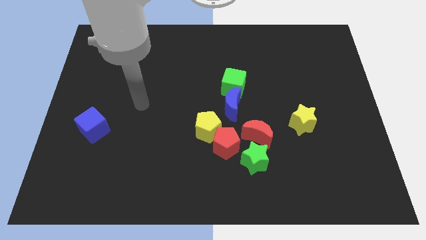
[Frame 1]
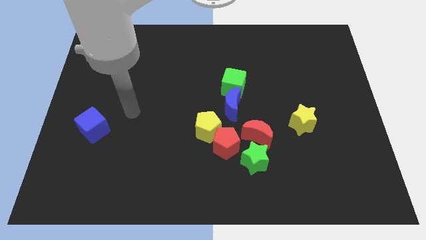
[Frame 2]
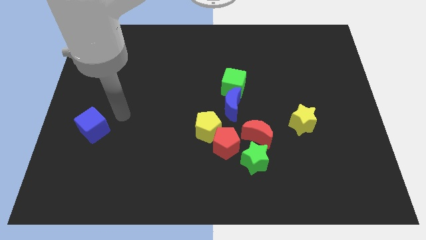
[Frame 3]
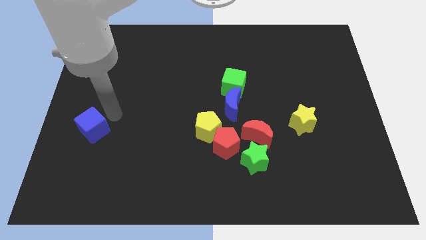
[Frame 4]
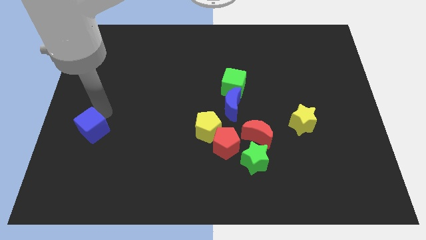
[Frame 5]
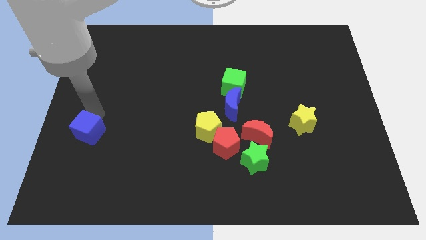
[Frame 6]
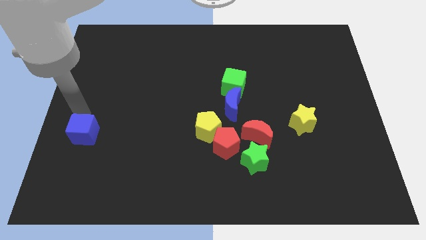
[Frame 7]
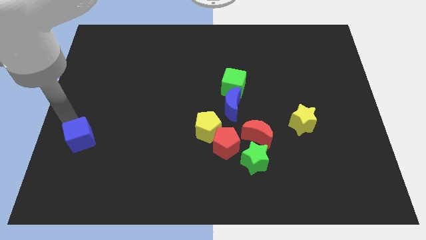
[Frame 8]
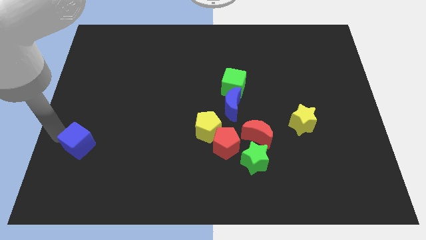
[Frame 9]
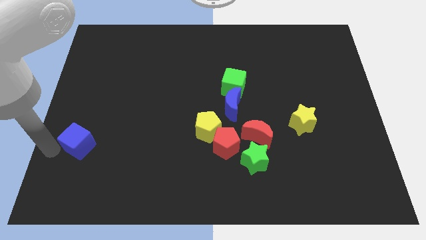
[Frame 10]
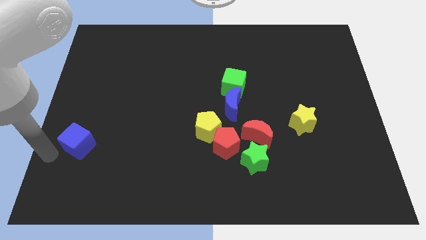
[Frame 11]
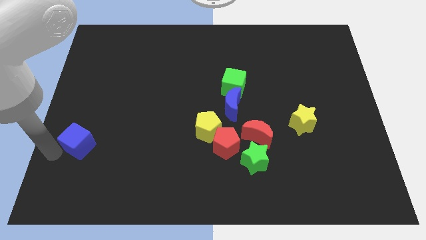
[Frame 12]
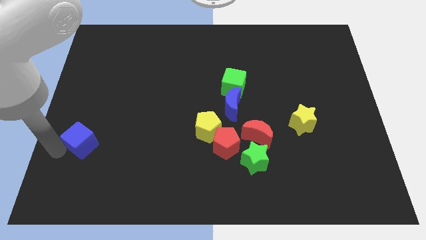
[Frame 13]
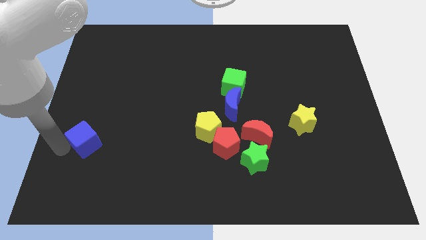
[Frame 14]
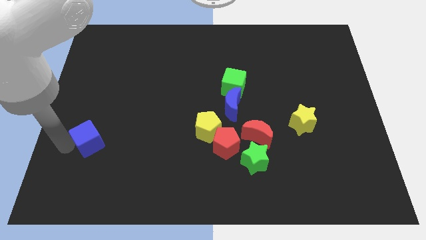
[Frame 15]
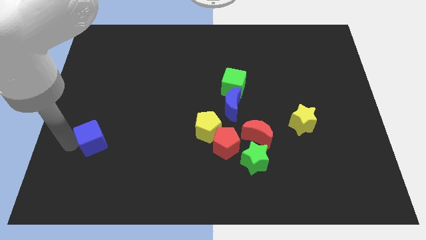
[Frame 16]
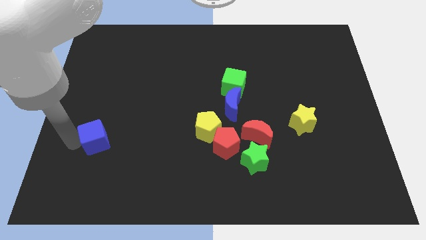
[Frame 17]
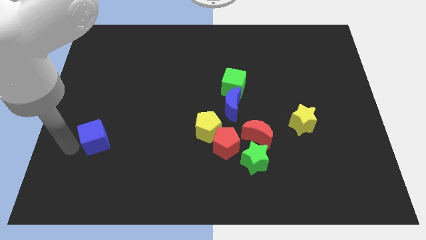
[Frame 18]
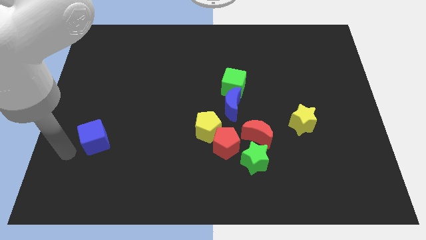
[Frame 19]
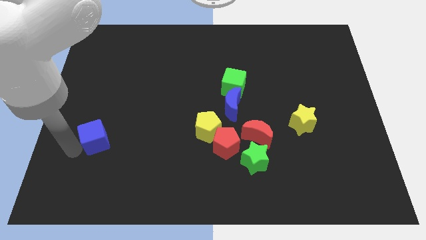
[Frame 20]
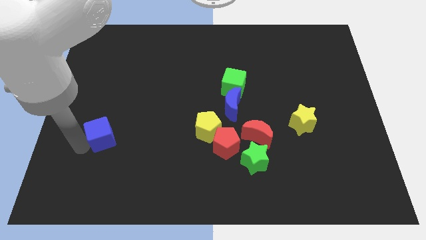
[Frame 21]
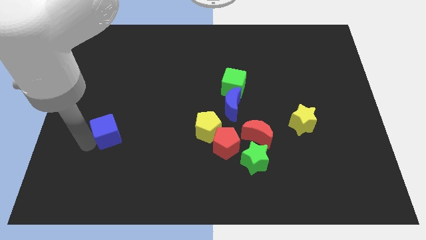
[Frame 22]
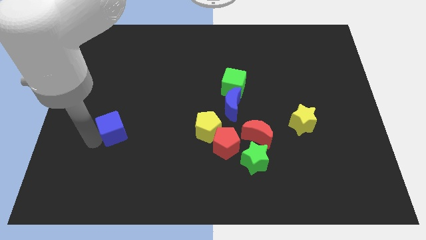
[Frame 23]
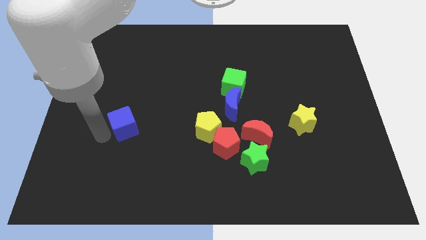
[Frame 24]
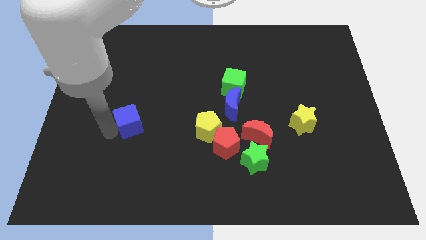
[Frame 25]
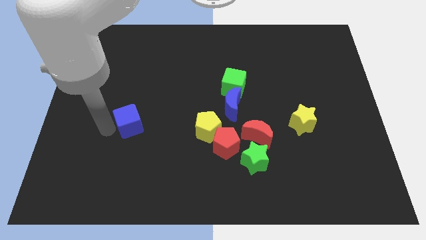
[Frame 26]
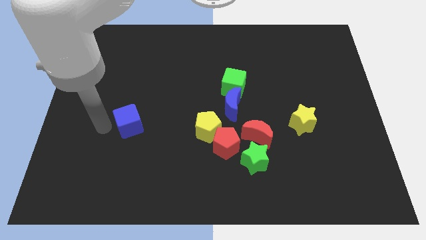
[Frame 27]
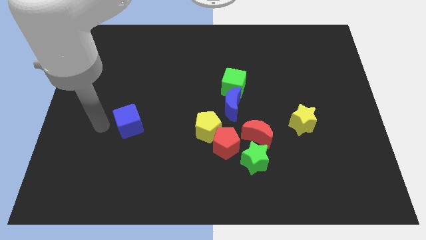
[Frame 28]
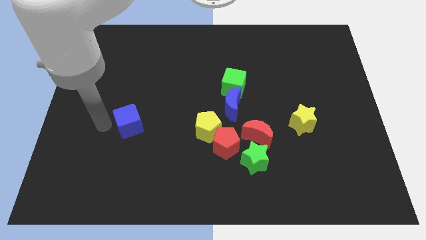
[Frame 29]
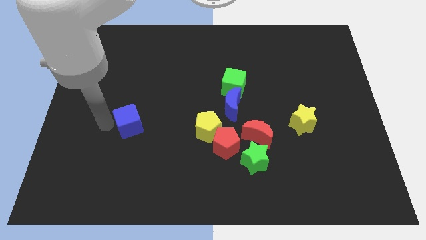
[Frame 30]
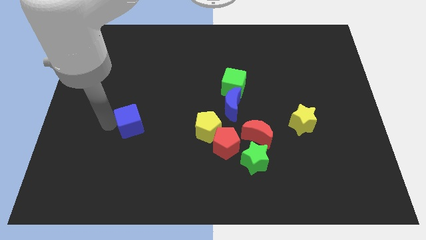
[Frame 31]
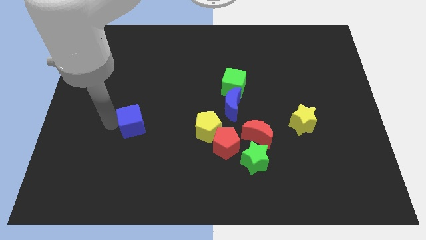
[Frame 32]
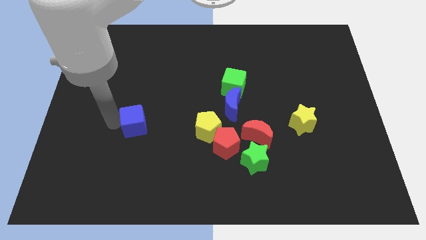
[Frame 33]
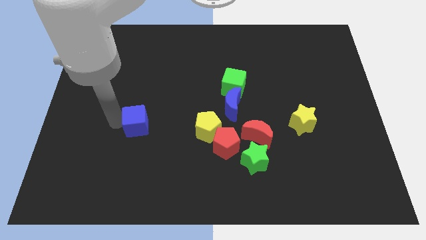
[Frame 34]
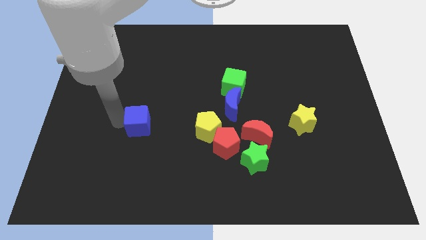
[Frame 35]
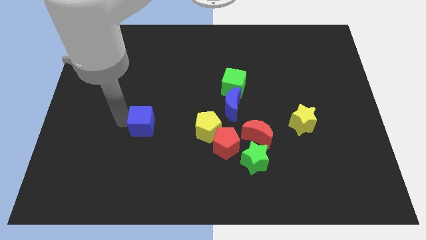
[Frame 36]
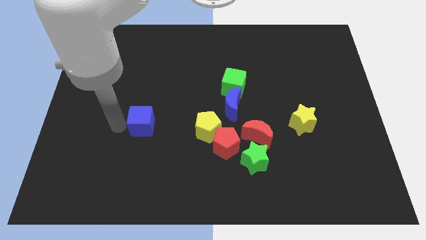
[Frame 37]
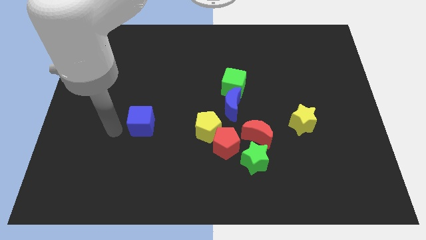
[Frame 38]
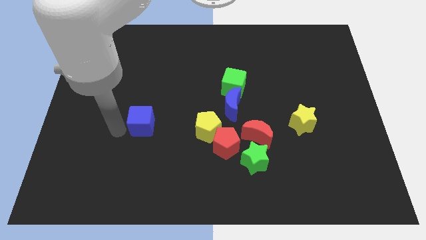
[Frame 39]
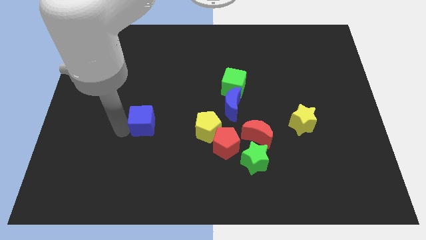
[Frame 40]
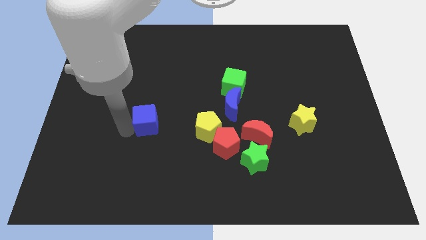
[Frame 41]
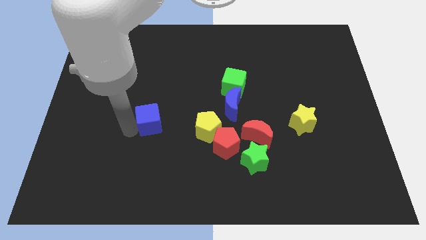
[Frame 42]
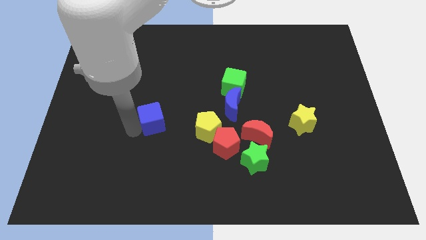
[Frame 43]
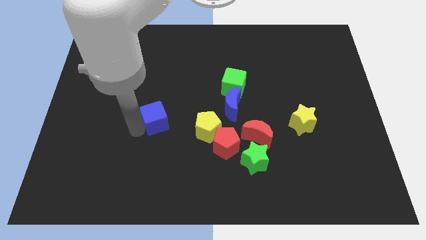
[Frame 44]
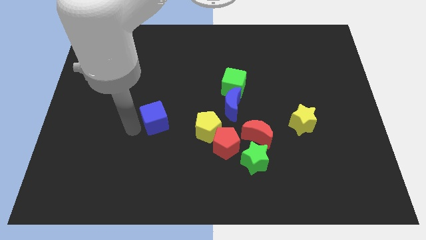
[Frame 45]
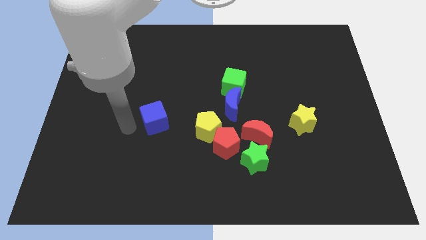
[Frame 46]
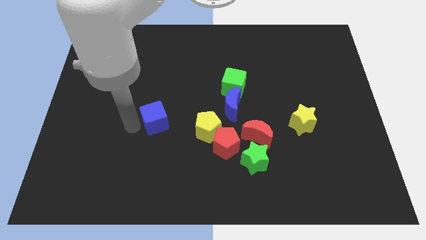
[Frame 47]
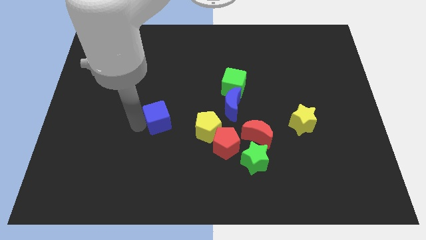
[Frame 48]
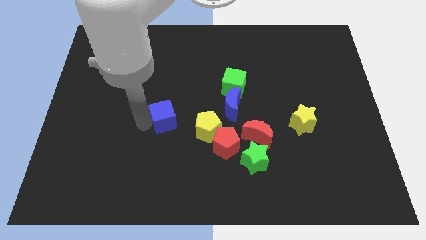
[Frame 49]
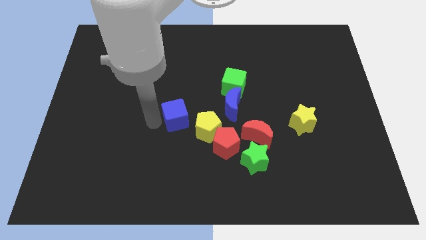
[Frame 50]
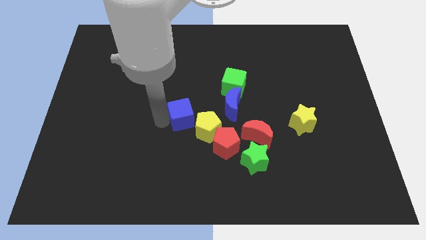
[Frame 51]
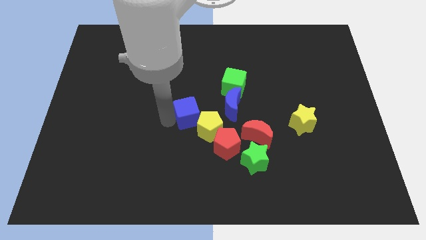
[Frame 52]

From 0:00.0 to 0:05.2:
push the blue cube right

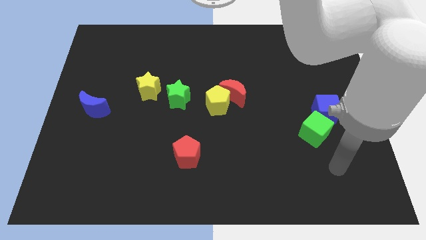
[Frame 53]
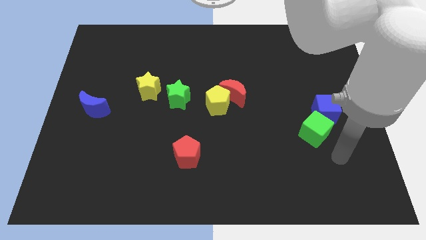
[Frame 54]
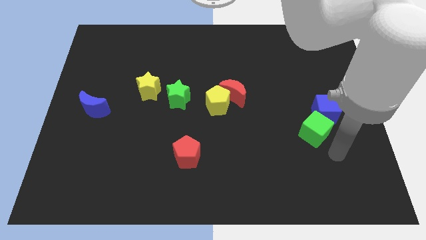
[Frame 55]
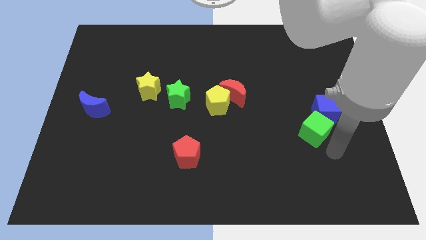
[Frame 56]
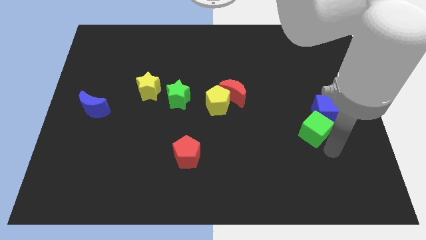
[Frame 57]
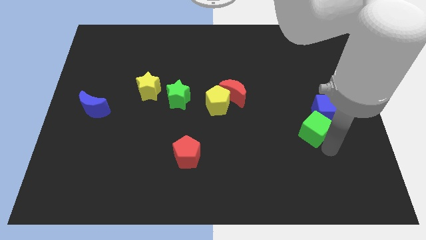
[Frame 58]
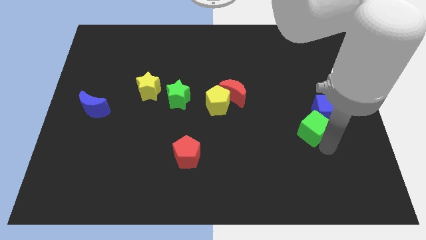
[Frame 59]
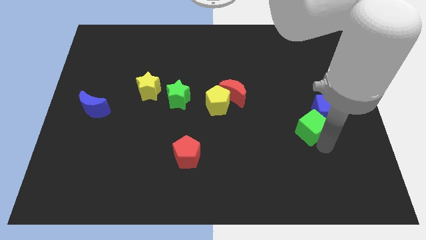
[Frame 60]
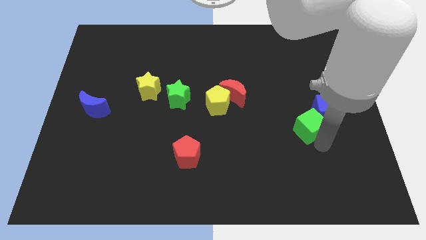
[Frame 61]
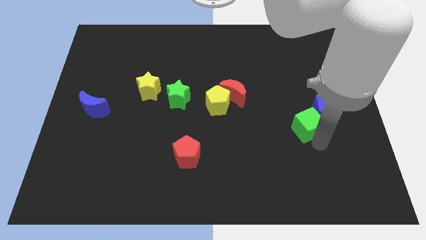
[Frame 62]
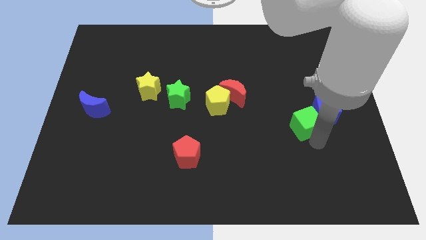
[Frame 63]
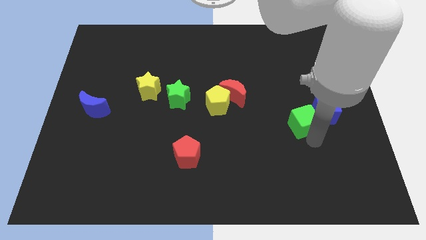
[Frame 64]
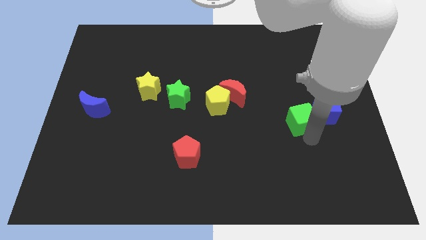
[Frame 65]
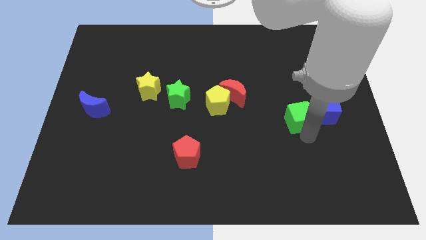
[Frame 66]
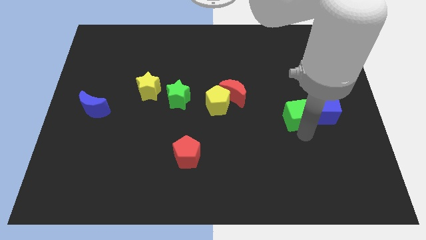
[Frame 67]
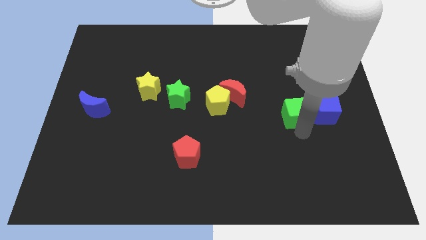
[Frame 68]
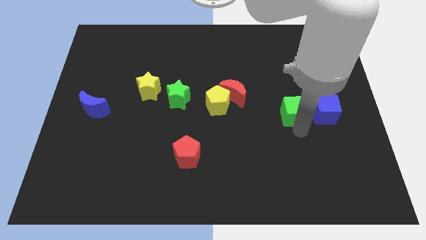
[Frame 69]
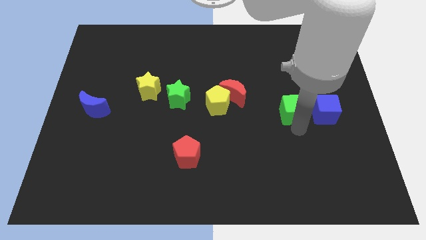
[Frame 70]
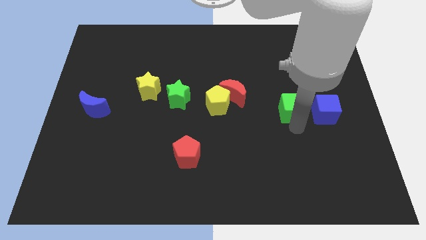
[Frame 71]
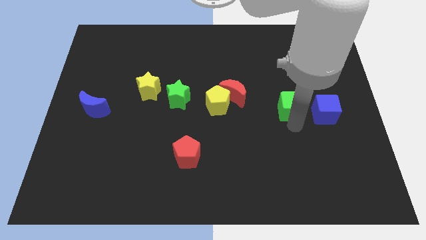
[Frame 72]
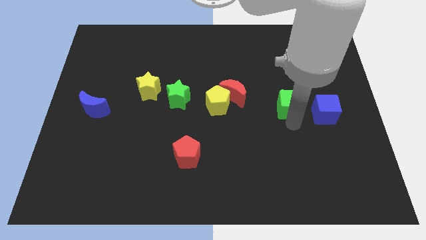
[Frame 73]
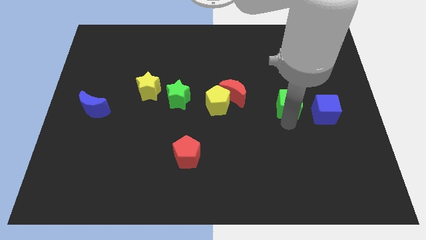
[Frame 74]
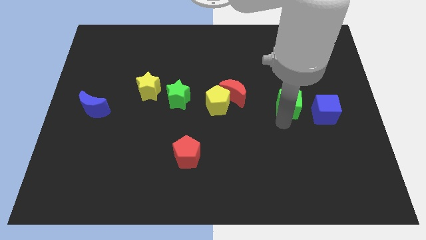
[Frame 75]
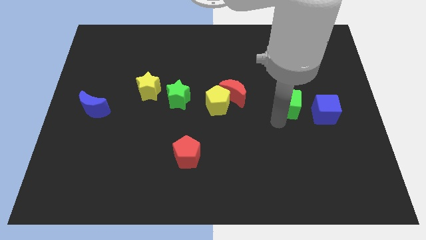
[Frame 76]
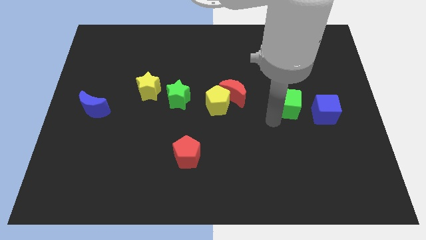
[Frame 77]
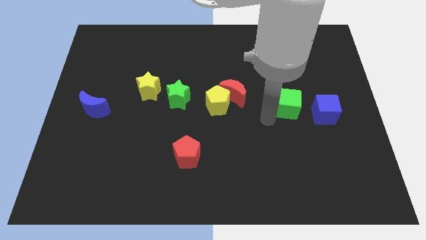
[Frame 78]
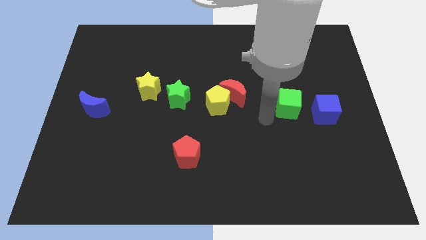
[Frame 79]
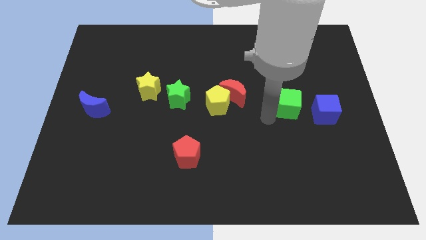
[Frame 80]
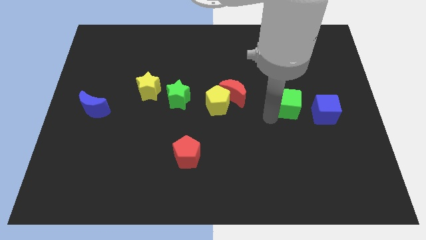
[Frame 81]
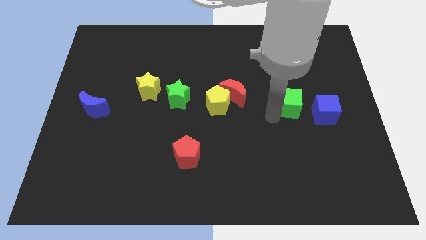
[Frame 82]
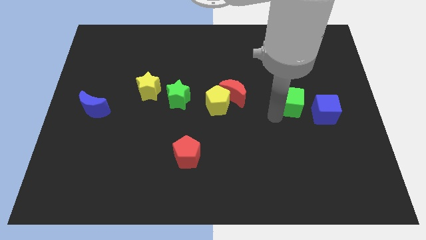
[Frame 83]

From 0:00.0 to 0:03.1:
slide the green cube upwards somewhat

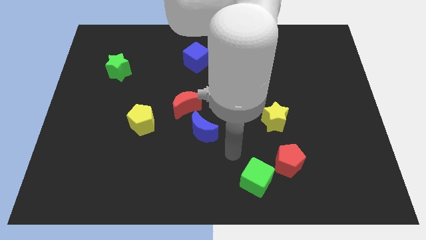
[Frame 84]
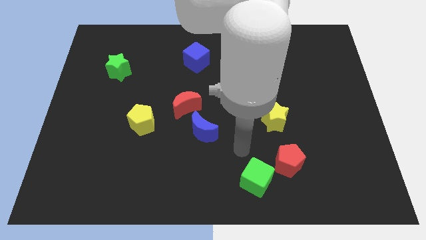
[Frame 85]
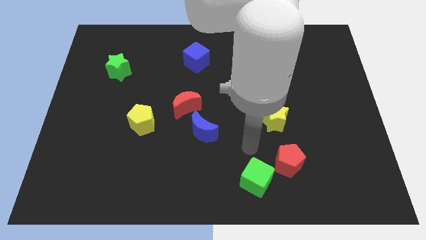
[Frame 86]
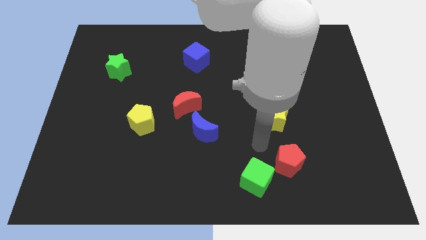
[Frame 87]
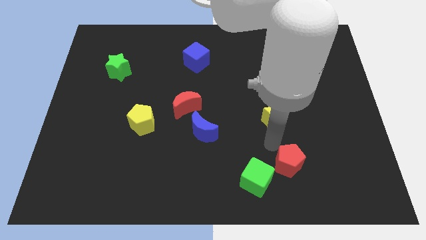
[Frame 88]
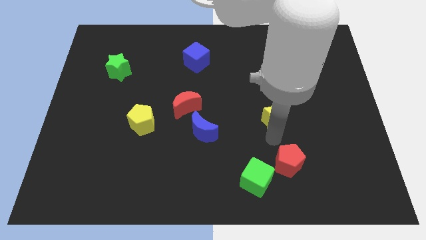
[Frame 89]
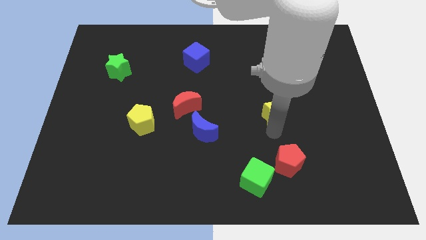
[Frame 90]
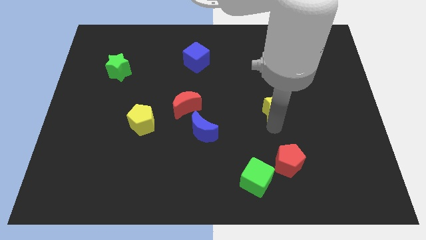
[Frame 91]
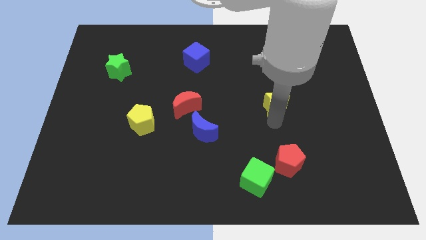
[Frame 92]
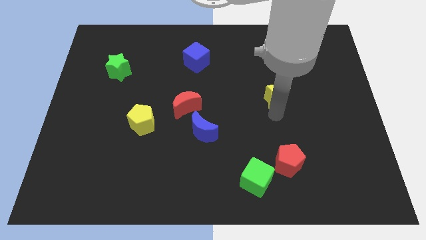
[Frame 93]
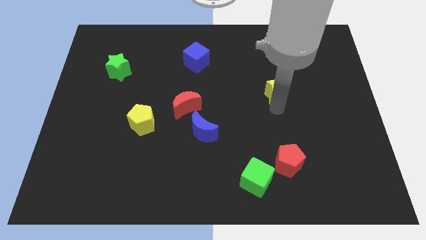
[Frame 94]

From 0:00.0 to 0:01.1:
move the yellow star a little bit upwards
